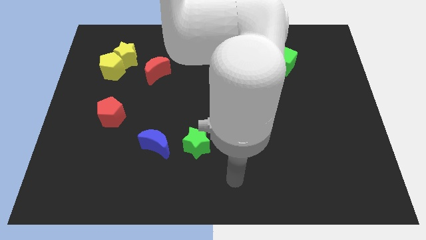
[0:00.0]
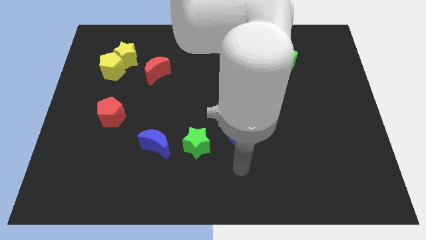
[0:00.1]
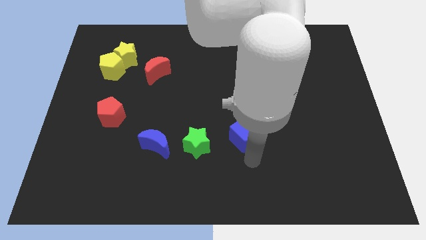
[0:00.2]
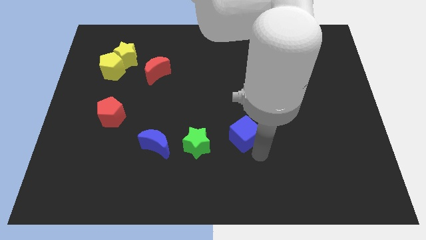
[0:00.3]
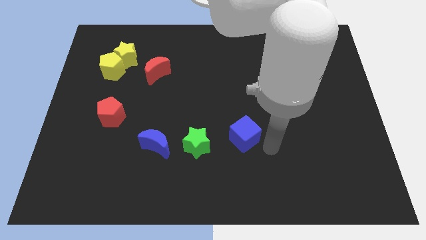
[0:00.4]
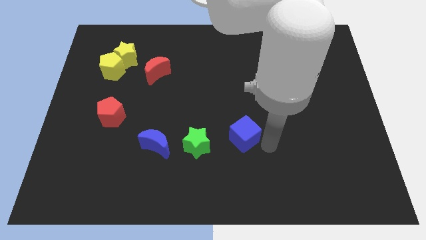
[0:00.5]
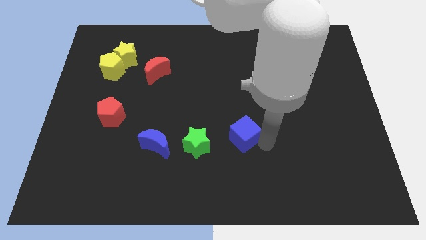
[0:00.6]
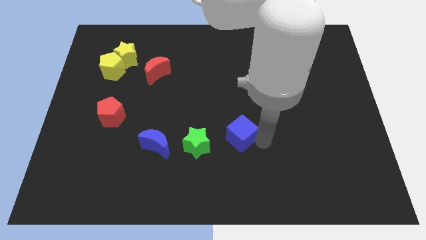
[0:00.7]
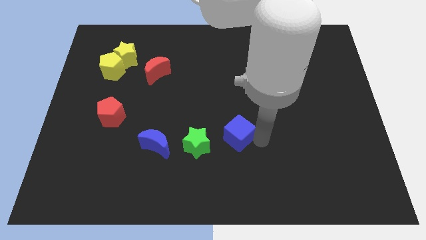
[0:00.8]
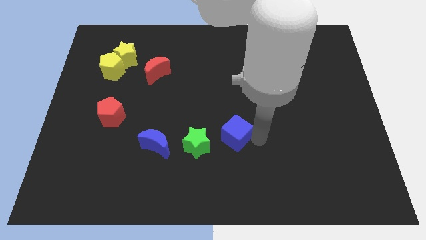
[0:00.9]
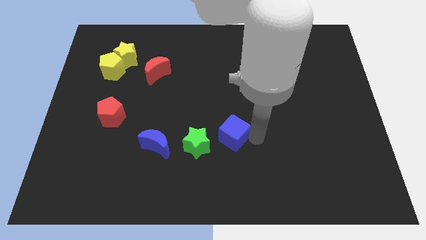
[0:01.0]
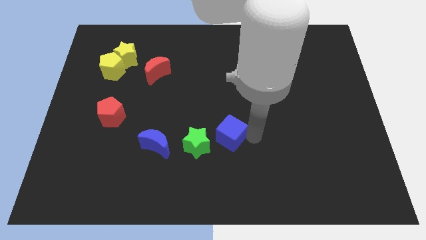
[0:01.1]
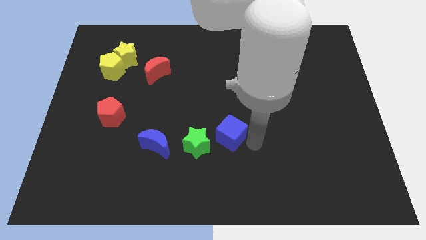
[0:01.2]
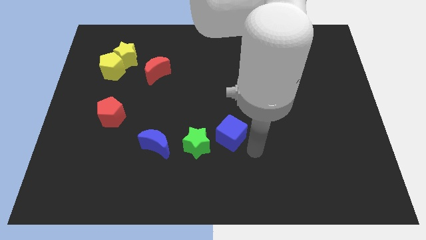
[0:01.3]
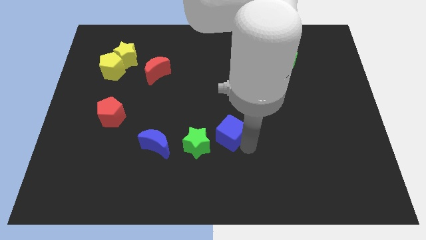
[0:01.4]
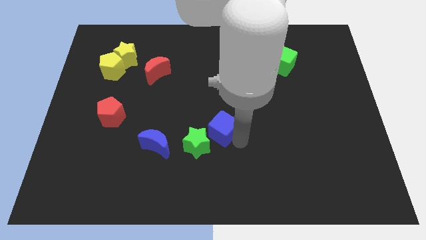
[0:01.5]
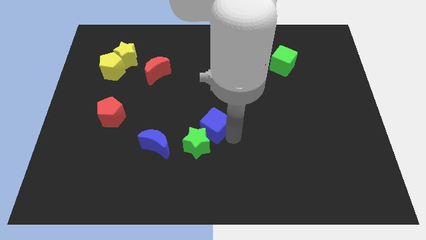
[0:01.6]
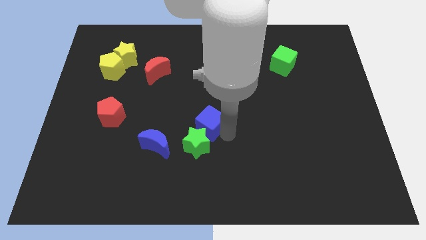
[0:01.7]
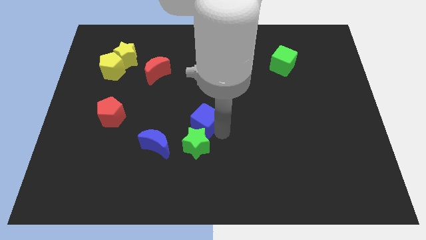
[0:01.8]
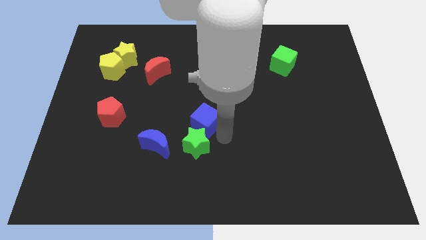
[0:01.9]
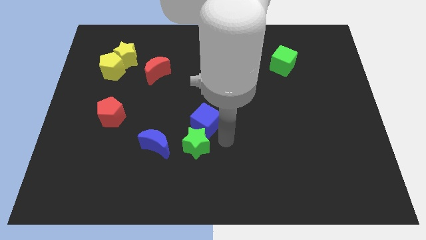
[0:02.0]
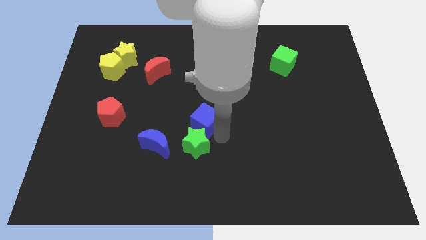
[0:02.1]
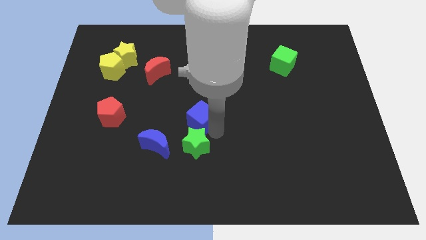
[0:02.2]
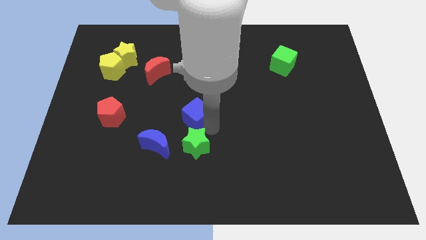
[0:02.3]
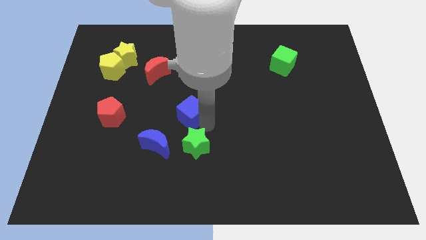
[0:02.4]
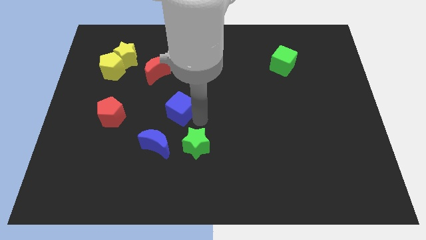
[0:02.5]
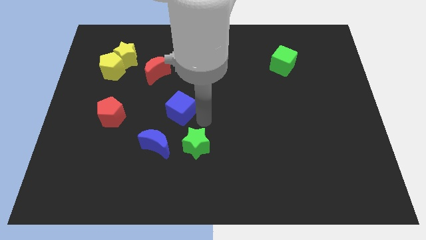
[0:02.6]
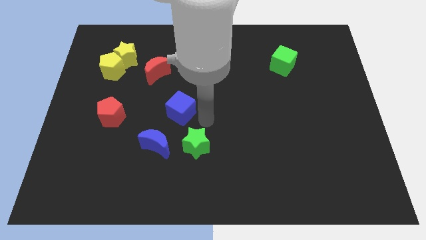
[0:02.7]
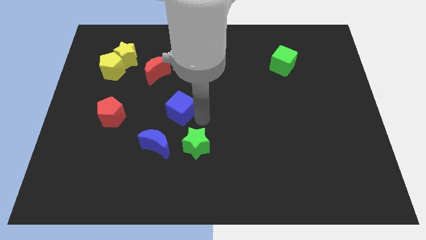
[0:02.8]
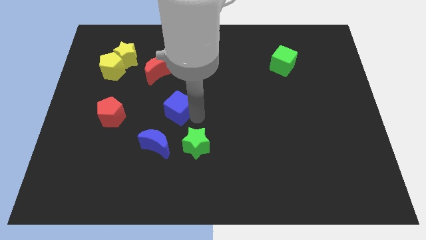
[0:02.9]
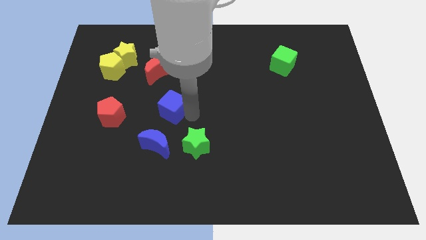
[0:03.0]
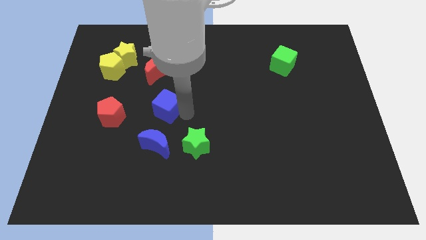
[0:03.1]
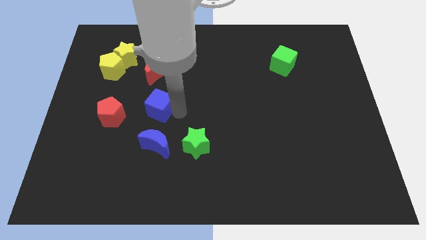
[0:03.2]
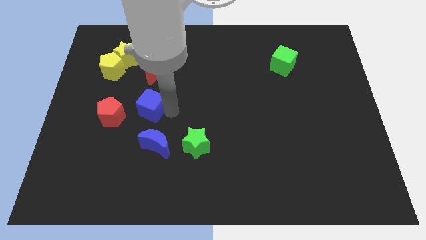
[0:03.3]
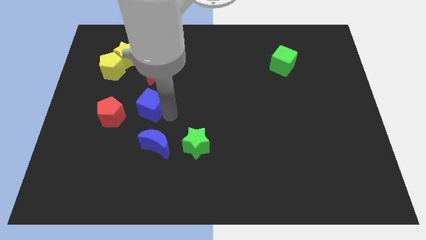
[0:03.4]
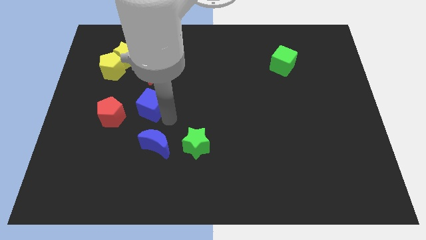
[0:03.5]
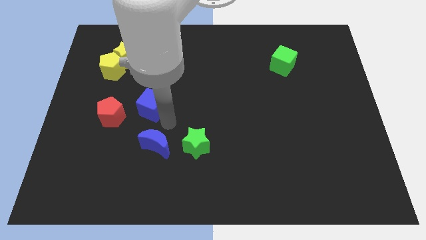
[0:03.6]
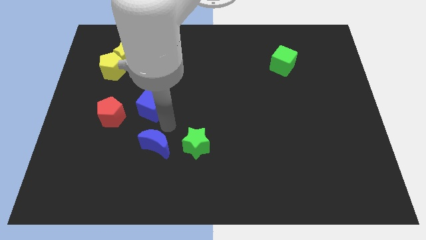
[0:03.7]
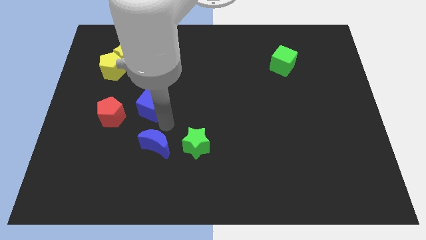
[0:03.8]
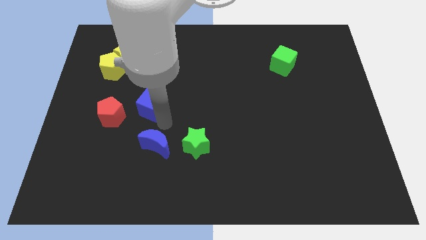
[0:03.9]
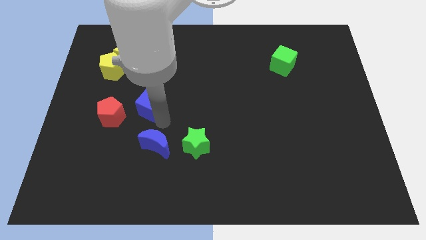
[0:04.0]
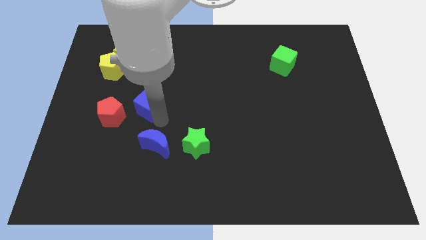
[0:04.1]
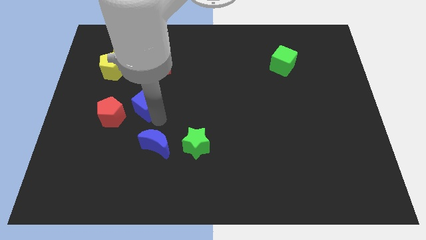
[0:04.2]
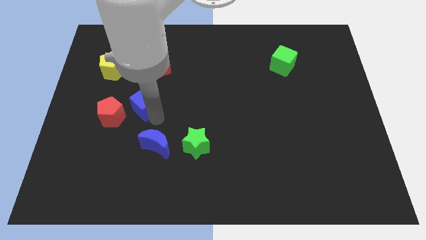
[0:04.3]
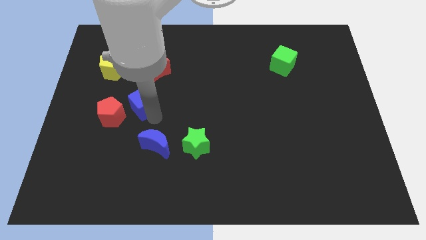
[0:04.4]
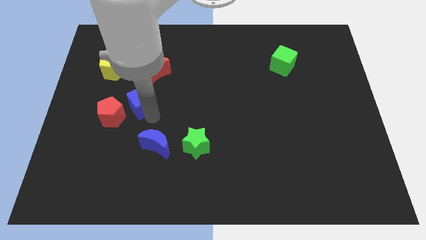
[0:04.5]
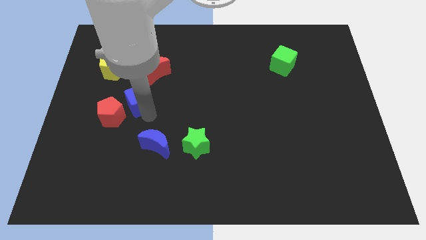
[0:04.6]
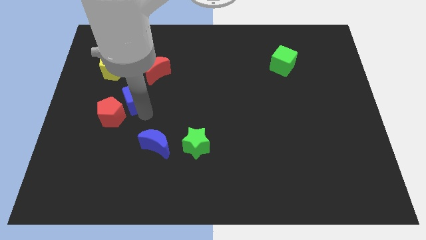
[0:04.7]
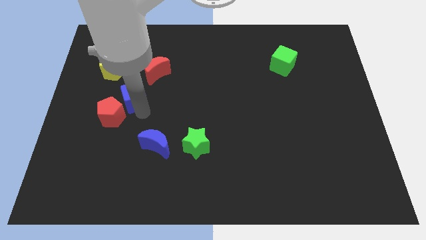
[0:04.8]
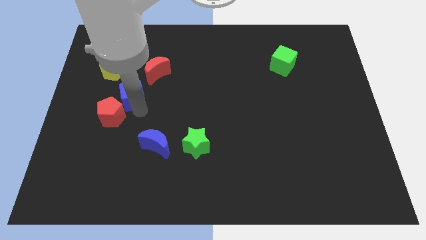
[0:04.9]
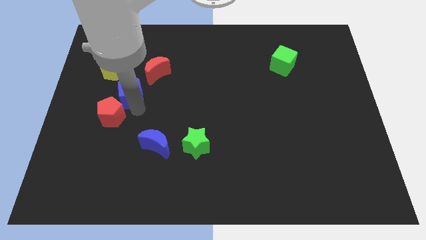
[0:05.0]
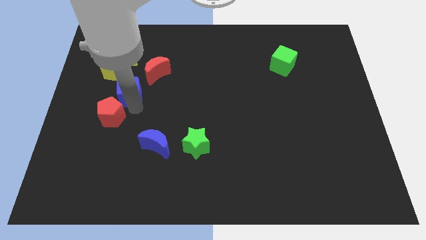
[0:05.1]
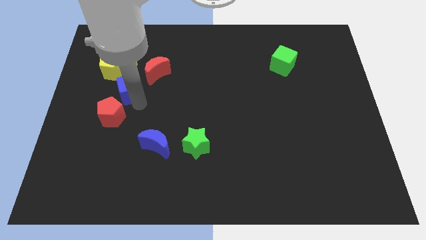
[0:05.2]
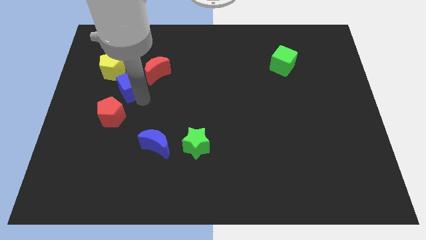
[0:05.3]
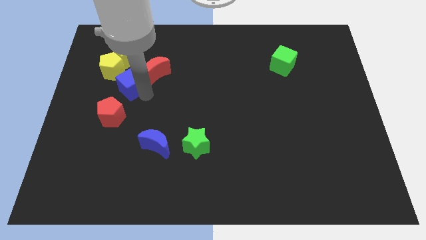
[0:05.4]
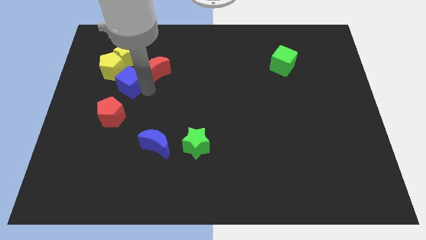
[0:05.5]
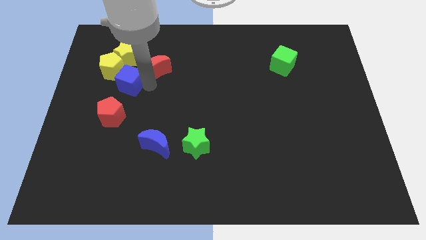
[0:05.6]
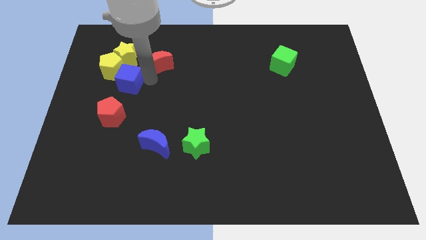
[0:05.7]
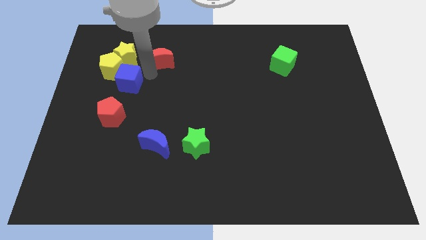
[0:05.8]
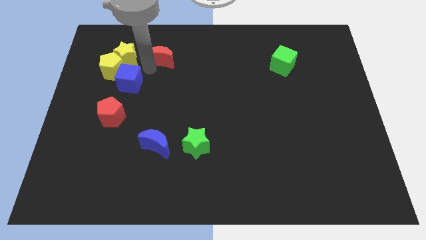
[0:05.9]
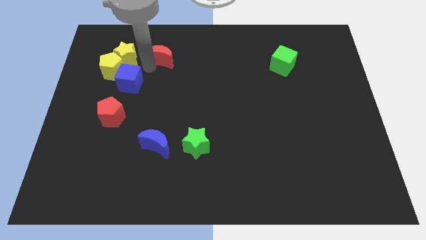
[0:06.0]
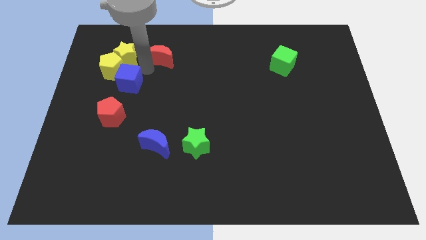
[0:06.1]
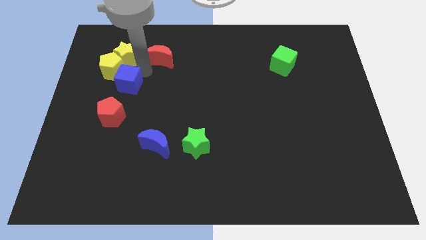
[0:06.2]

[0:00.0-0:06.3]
slide the blue cube to the bottom side of the yellow pentagon
